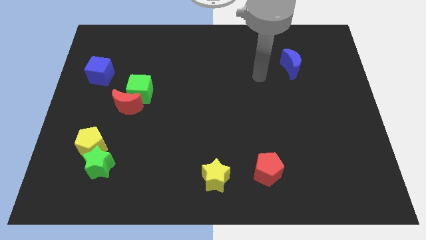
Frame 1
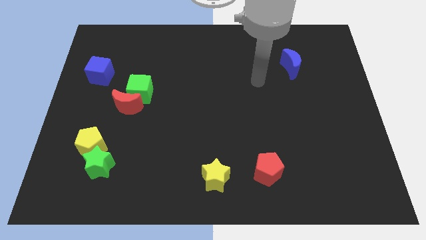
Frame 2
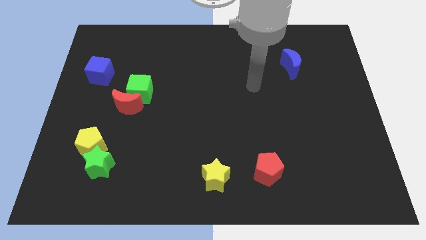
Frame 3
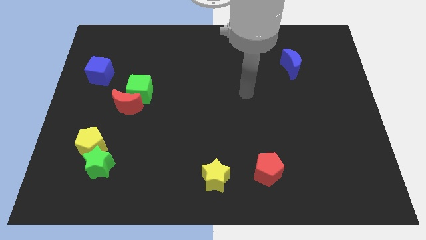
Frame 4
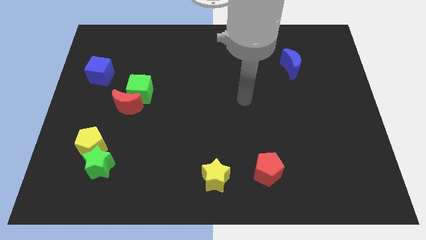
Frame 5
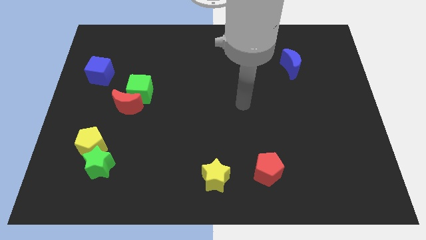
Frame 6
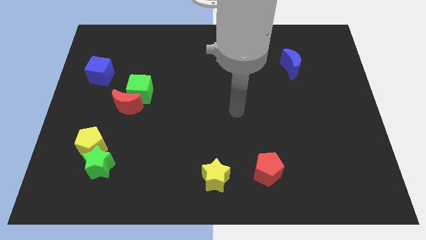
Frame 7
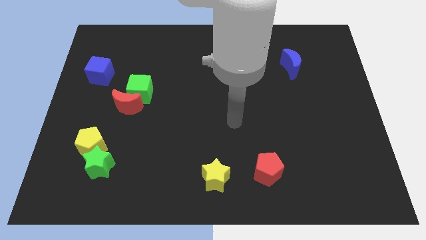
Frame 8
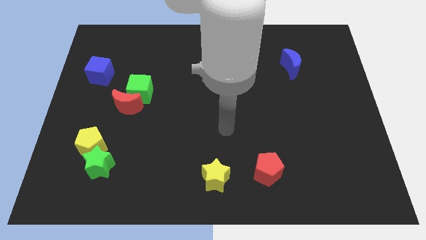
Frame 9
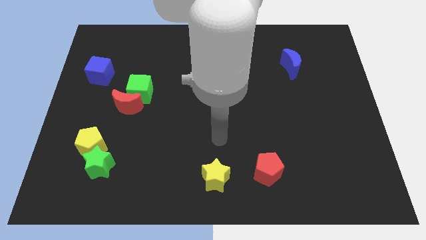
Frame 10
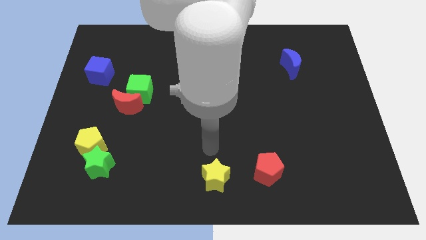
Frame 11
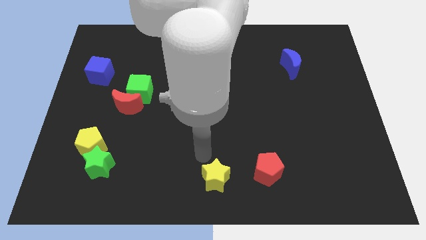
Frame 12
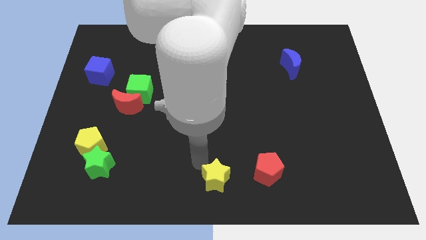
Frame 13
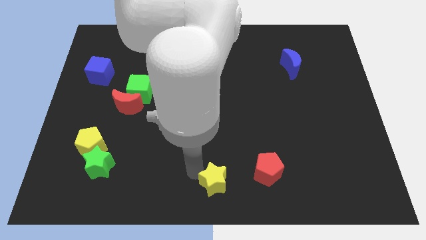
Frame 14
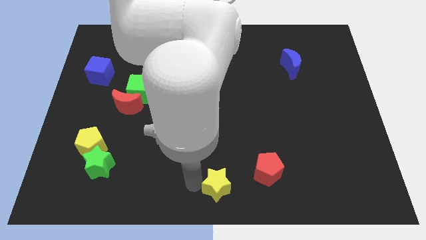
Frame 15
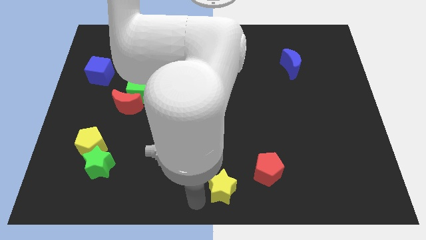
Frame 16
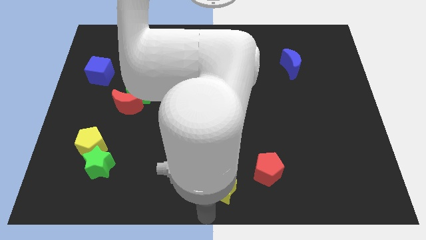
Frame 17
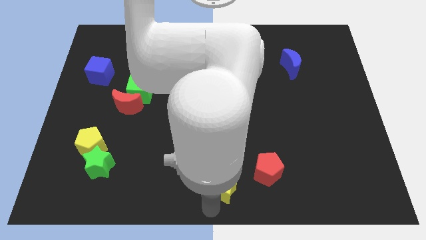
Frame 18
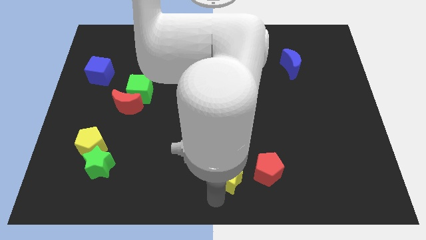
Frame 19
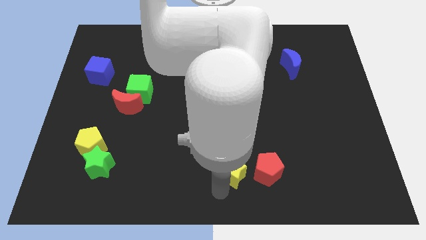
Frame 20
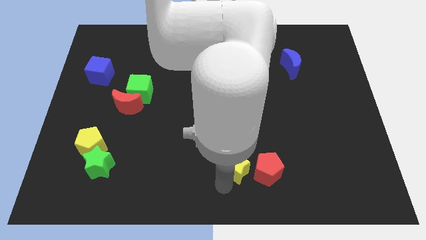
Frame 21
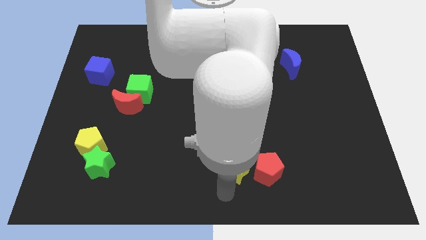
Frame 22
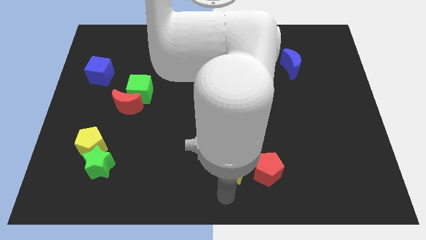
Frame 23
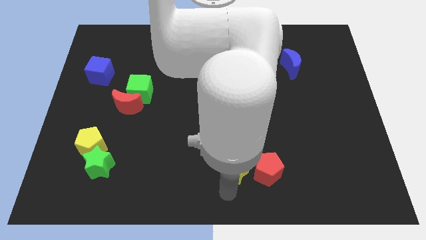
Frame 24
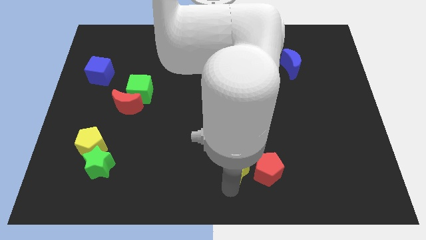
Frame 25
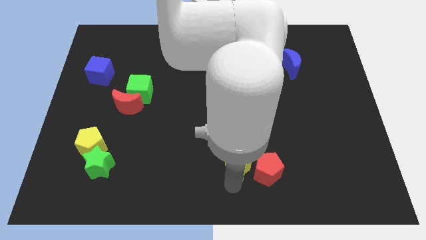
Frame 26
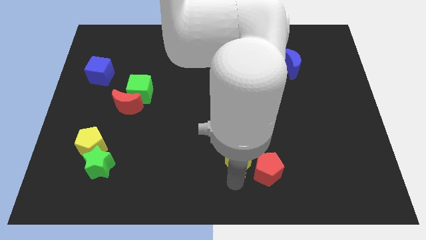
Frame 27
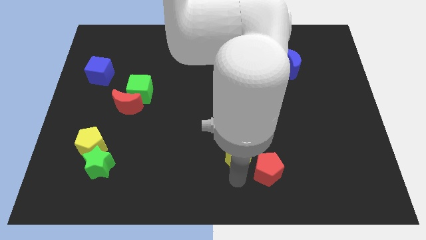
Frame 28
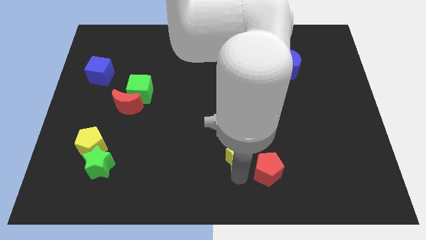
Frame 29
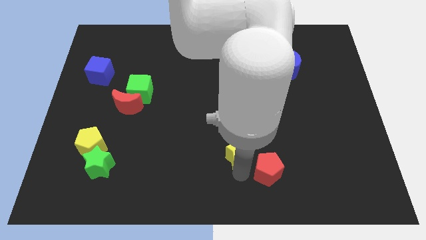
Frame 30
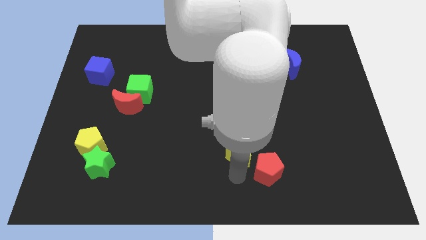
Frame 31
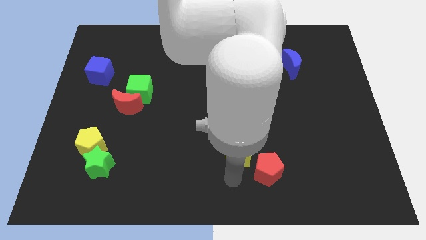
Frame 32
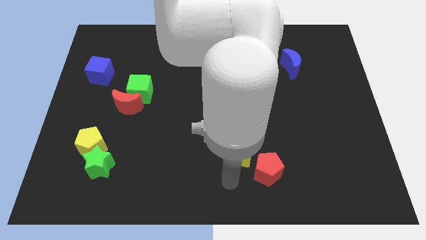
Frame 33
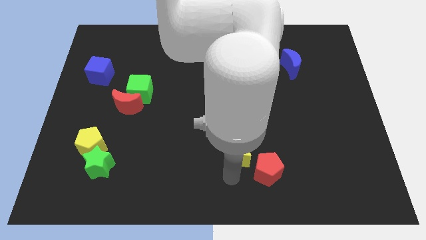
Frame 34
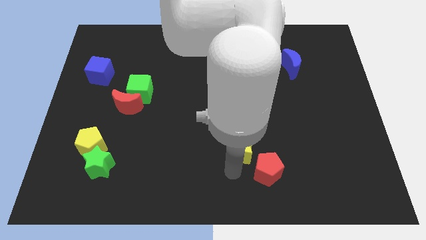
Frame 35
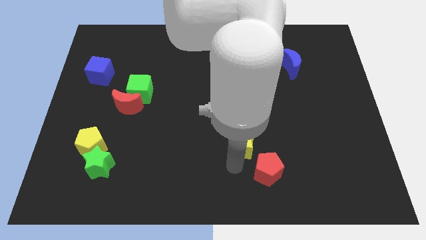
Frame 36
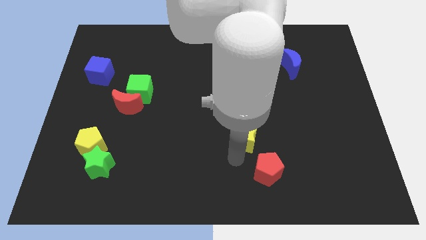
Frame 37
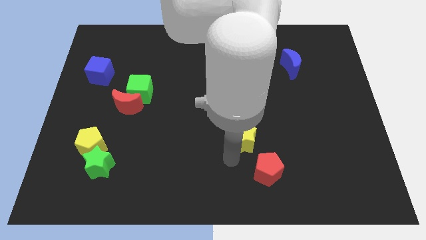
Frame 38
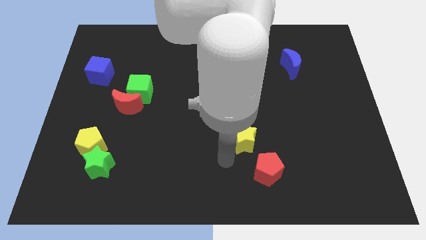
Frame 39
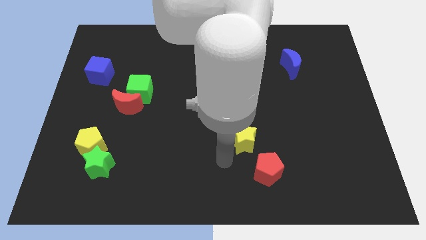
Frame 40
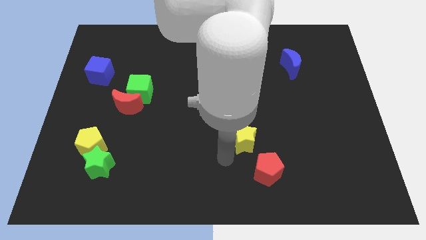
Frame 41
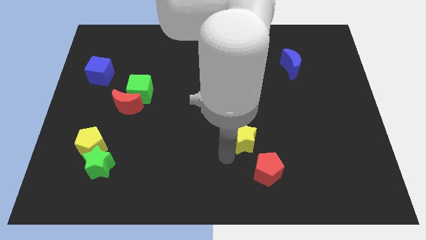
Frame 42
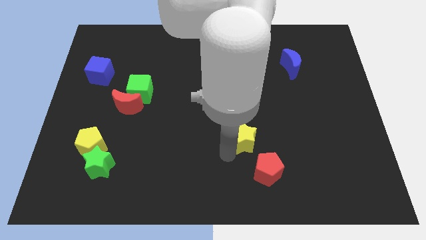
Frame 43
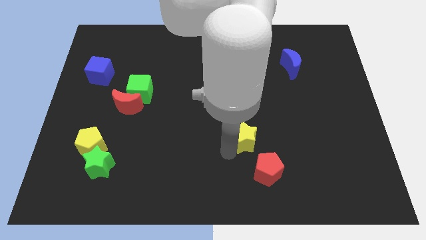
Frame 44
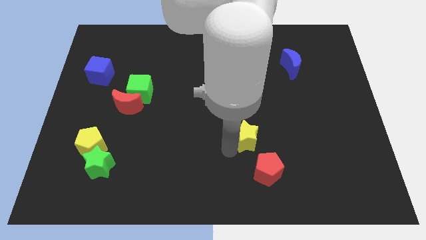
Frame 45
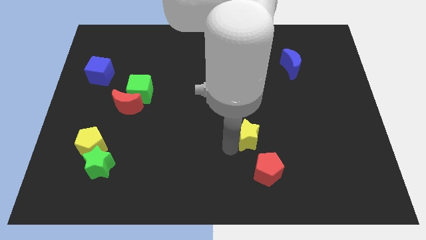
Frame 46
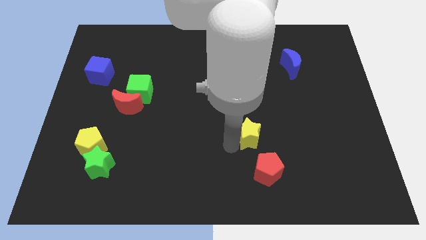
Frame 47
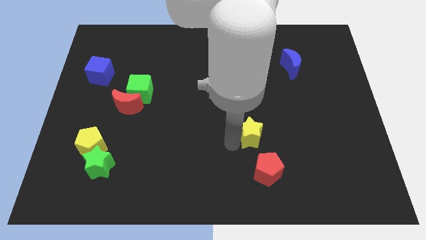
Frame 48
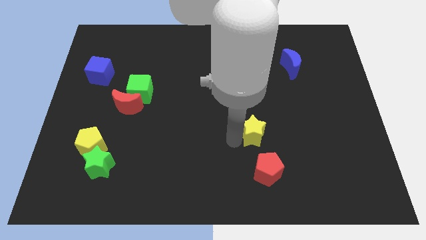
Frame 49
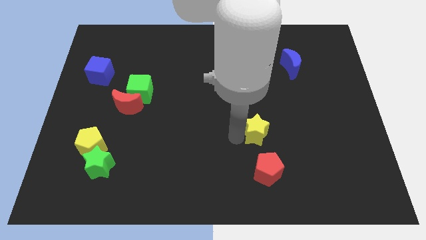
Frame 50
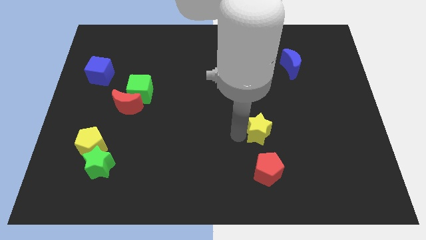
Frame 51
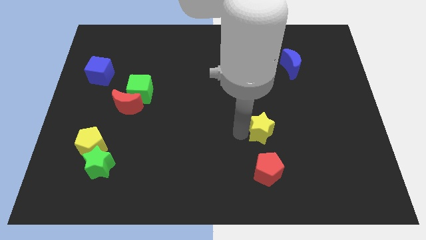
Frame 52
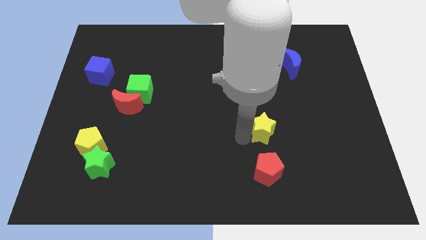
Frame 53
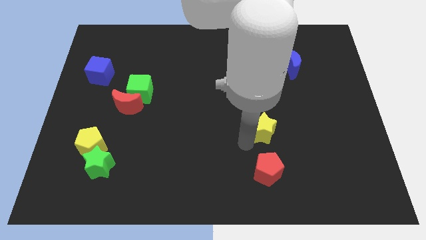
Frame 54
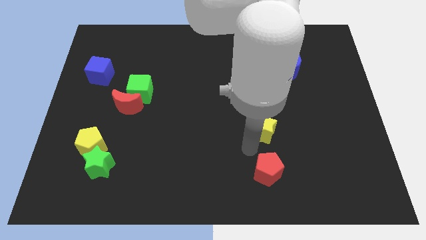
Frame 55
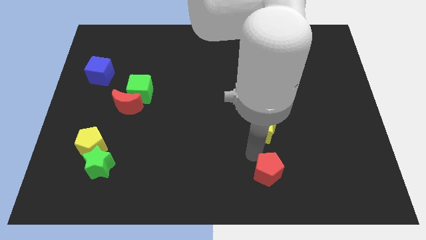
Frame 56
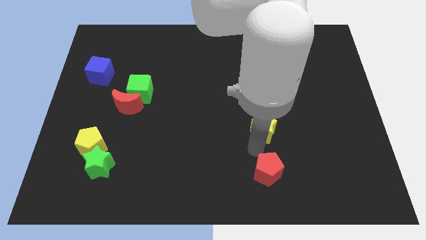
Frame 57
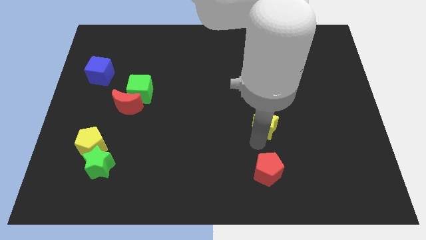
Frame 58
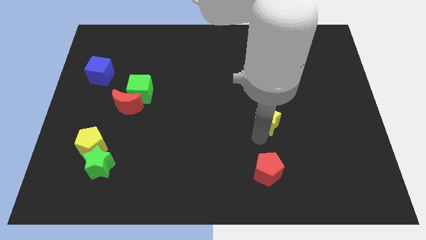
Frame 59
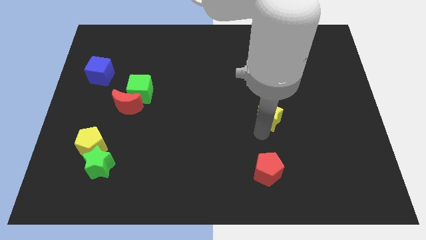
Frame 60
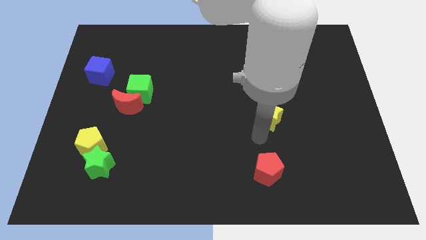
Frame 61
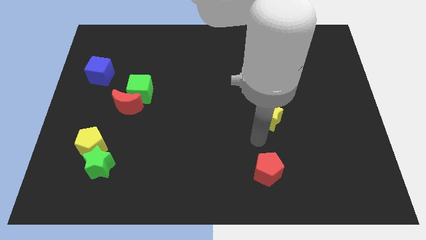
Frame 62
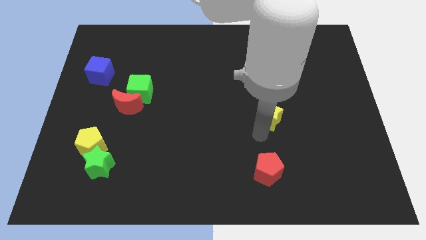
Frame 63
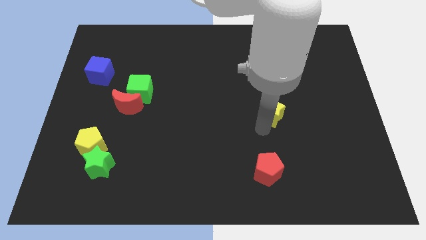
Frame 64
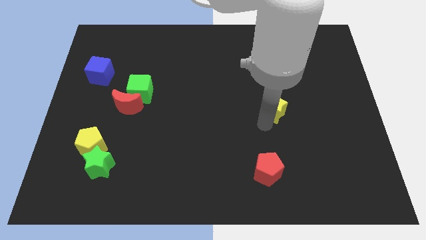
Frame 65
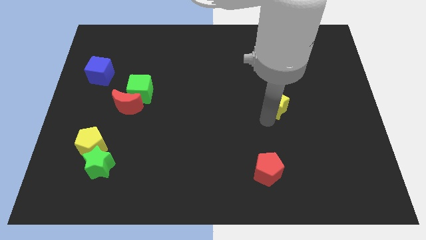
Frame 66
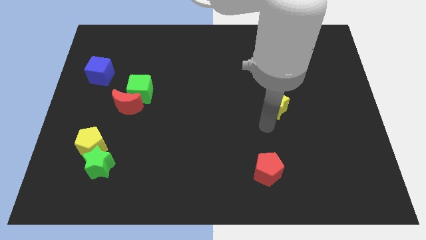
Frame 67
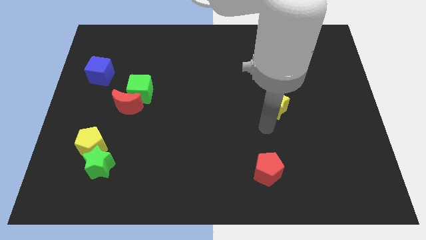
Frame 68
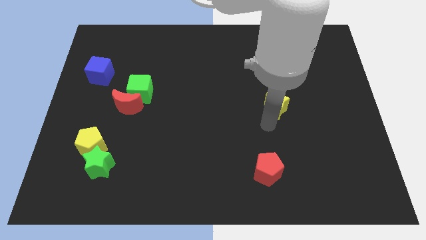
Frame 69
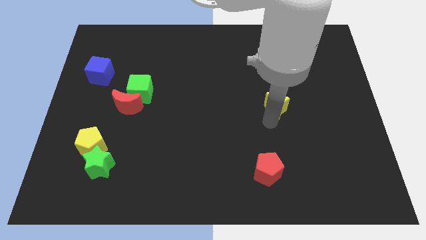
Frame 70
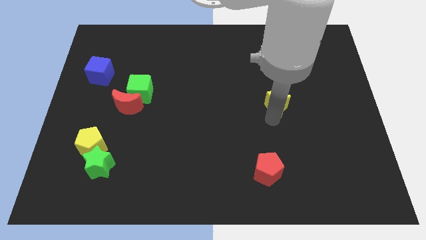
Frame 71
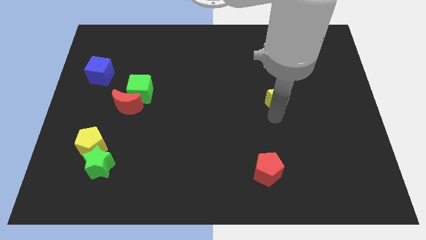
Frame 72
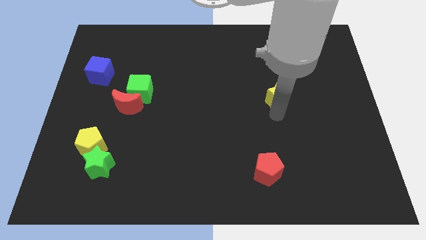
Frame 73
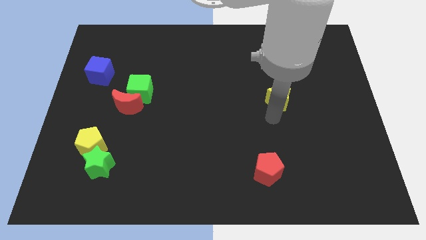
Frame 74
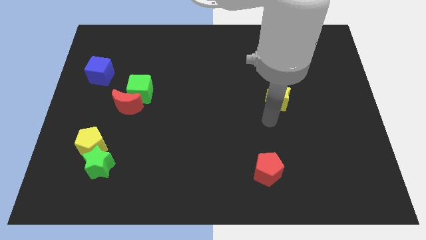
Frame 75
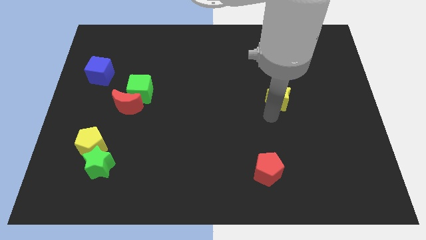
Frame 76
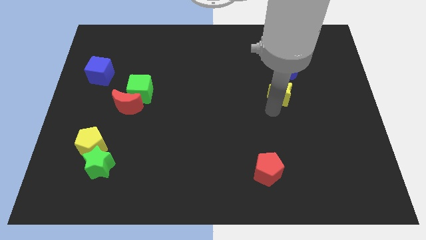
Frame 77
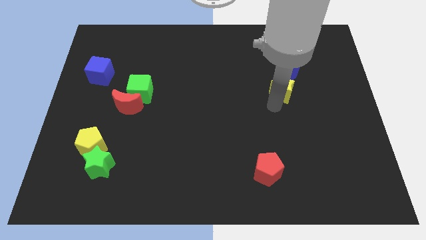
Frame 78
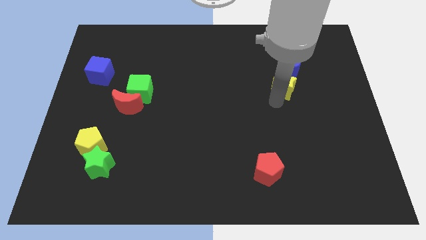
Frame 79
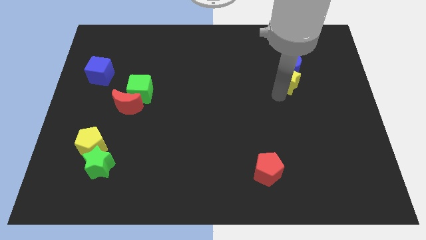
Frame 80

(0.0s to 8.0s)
push the yellow star close to the blue moon
